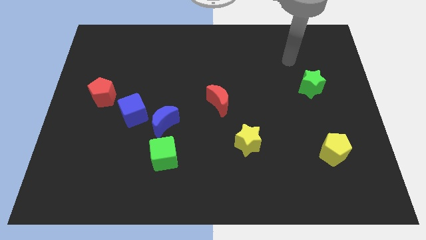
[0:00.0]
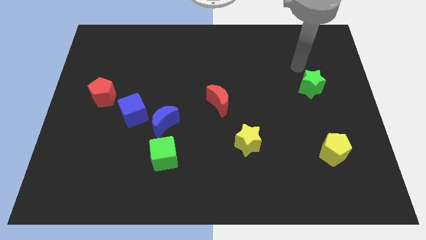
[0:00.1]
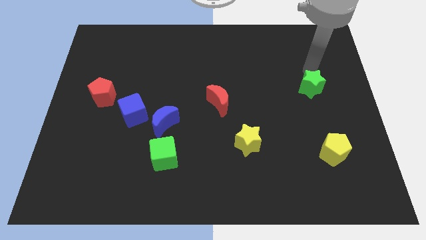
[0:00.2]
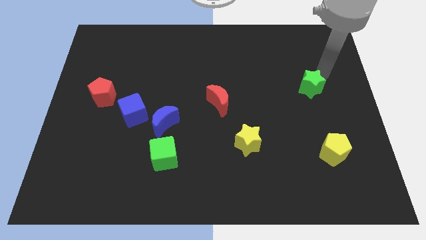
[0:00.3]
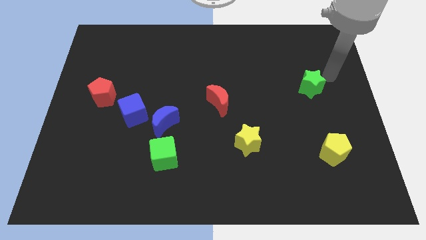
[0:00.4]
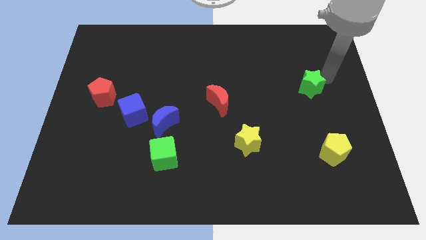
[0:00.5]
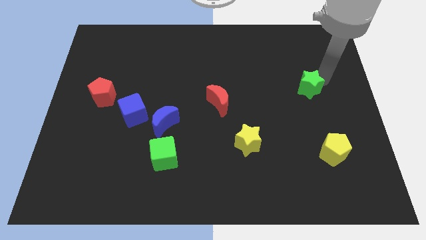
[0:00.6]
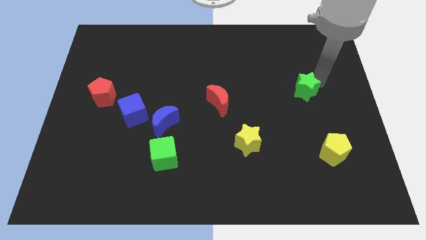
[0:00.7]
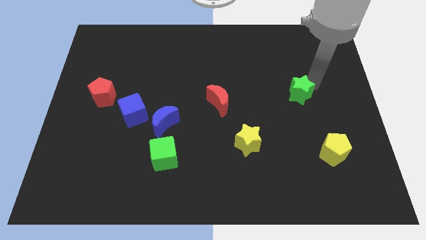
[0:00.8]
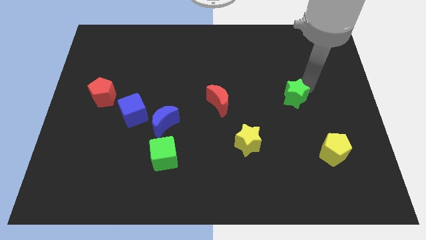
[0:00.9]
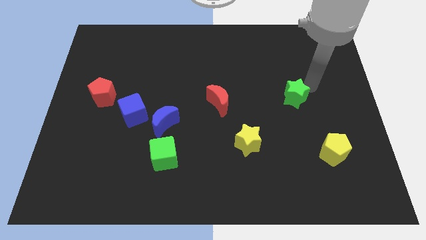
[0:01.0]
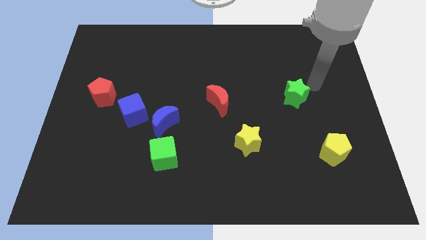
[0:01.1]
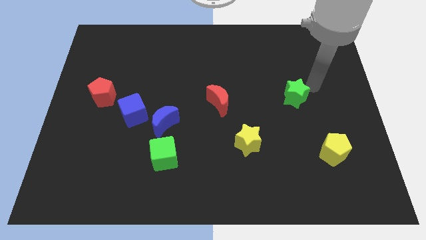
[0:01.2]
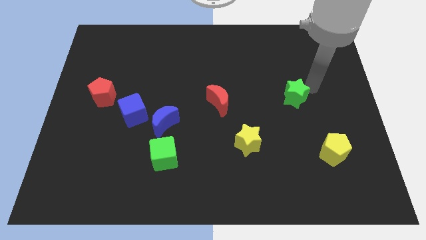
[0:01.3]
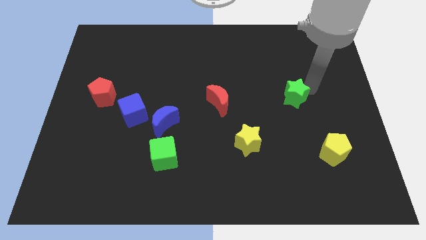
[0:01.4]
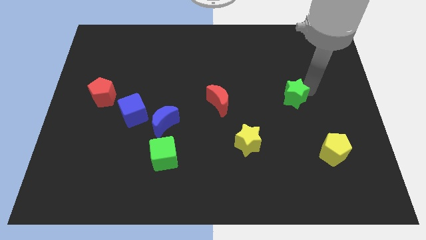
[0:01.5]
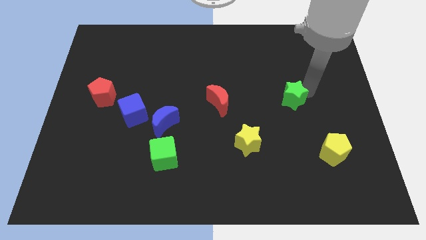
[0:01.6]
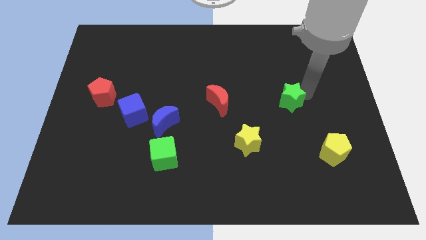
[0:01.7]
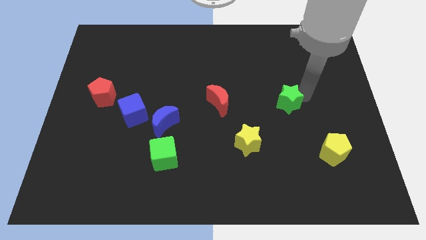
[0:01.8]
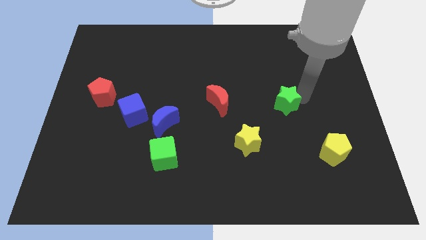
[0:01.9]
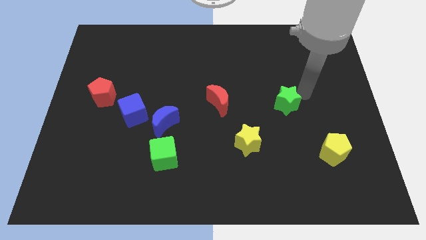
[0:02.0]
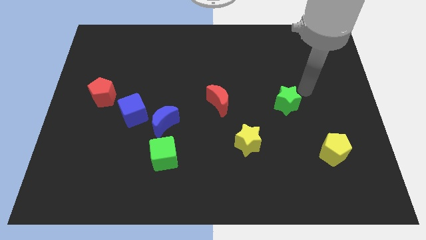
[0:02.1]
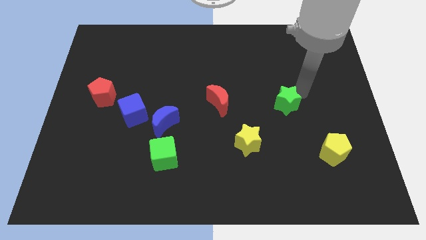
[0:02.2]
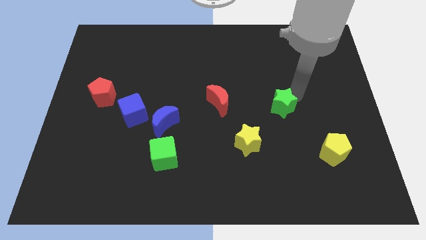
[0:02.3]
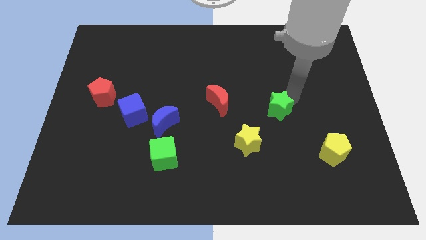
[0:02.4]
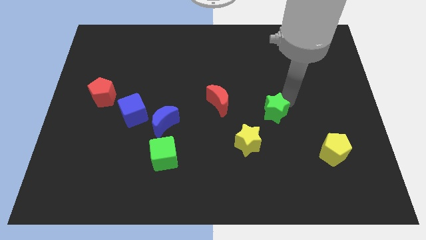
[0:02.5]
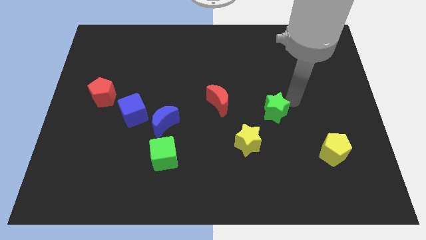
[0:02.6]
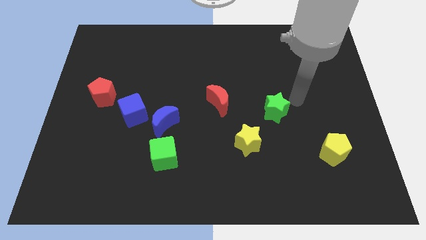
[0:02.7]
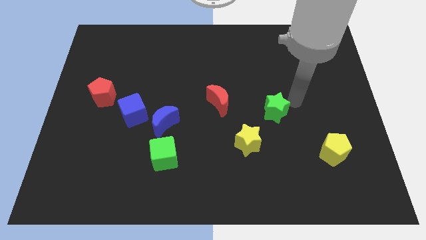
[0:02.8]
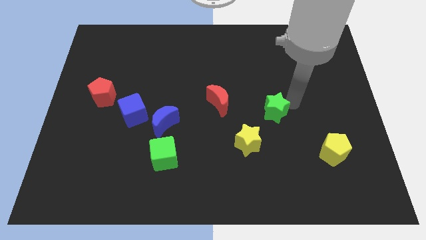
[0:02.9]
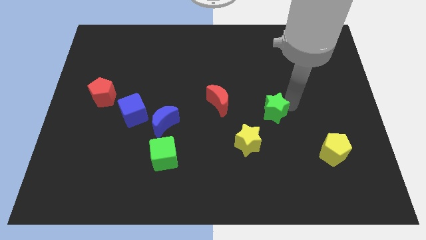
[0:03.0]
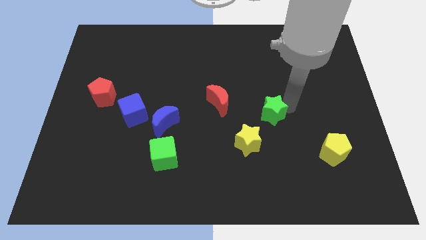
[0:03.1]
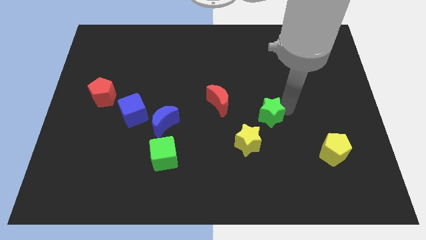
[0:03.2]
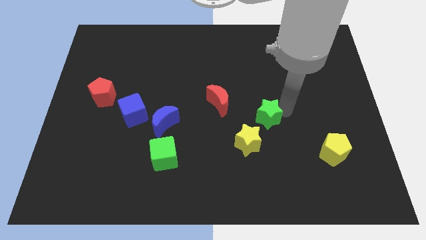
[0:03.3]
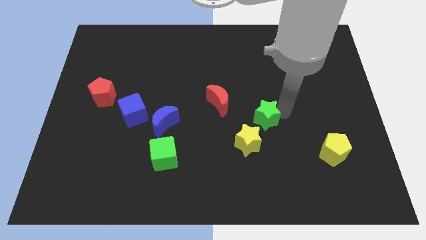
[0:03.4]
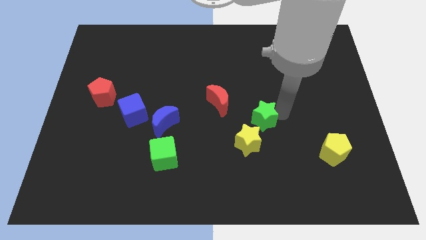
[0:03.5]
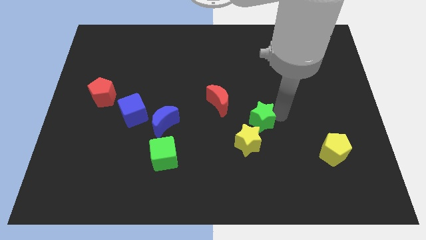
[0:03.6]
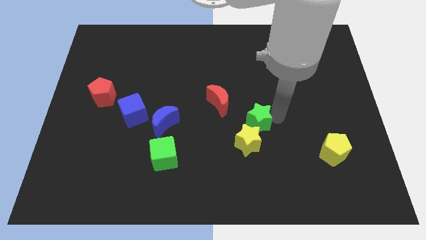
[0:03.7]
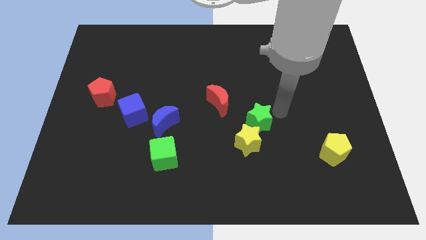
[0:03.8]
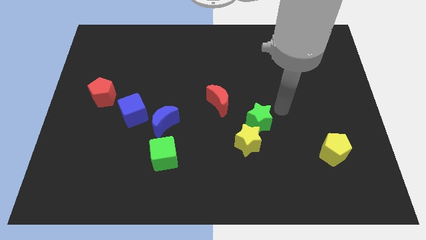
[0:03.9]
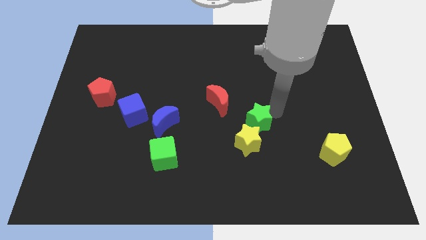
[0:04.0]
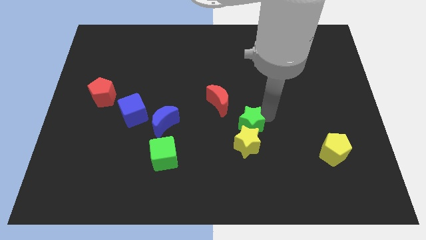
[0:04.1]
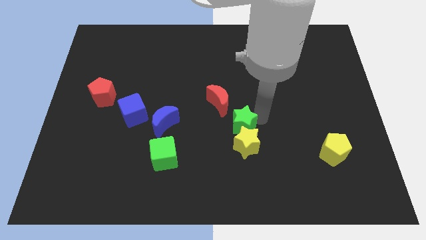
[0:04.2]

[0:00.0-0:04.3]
push the green star diagonally downwards and to the left

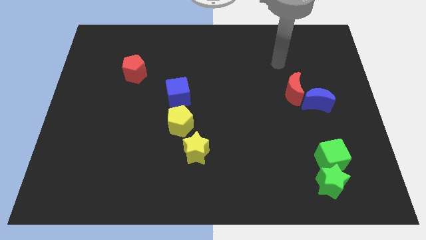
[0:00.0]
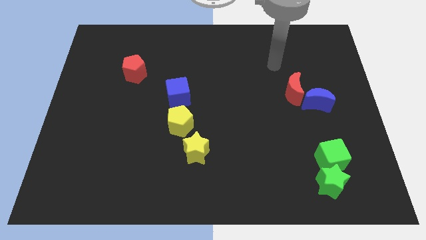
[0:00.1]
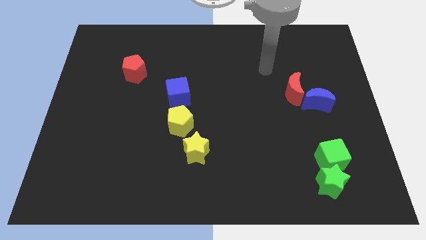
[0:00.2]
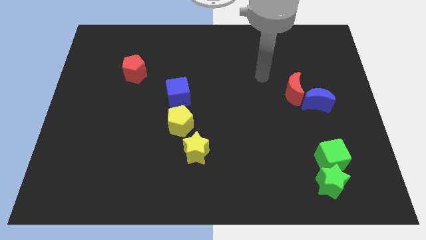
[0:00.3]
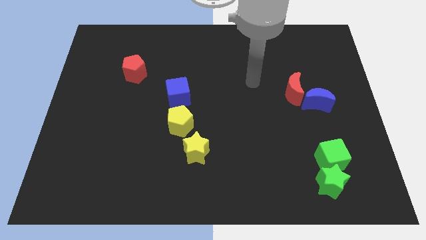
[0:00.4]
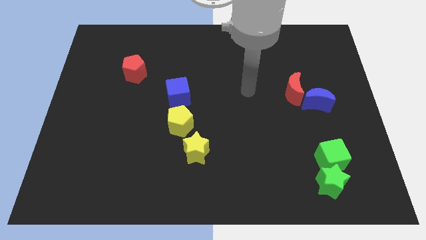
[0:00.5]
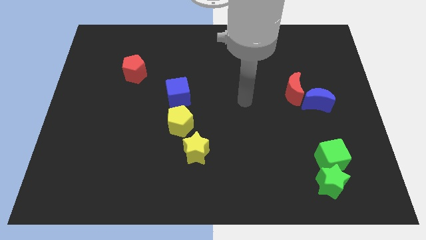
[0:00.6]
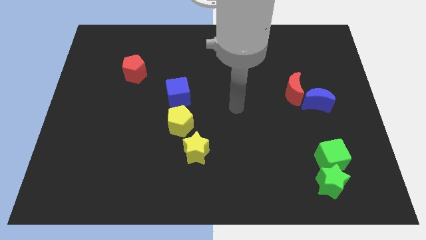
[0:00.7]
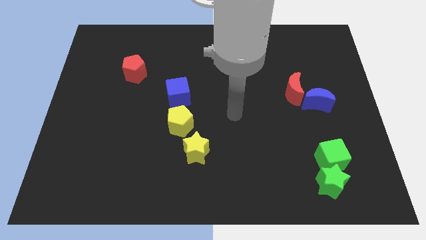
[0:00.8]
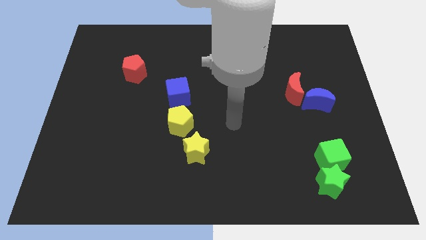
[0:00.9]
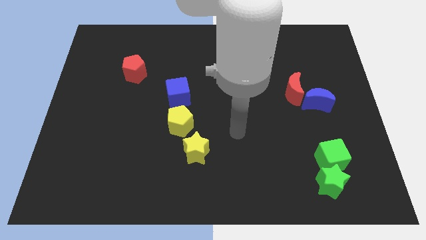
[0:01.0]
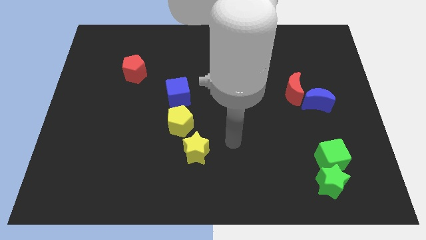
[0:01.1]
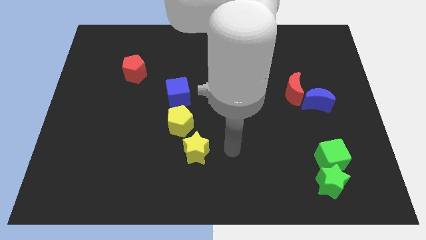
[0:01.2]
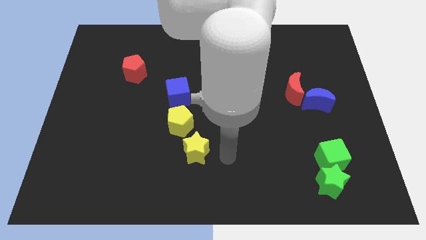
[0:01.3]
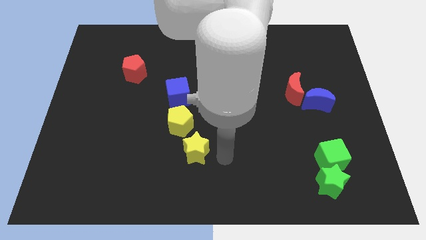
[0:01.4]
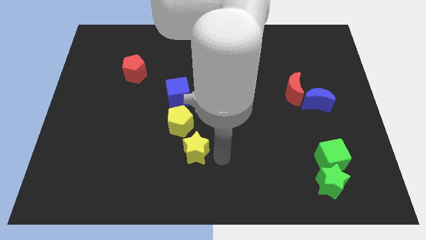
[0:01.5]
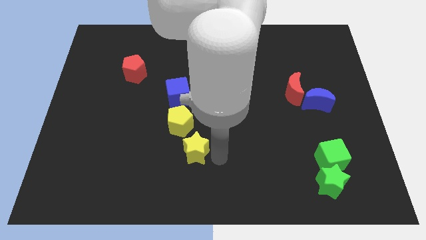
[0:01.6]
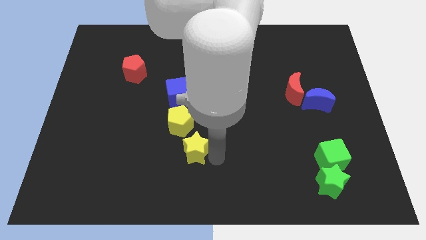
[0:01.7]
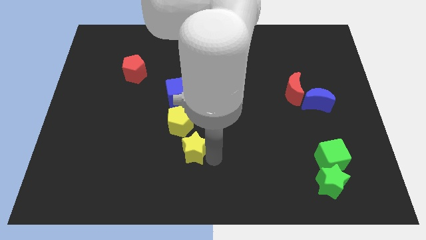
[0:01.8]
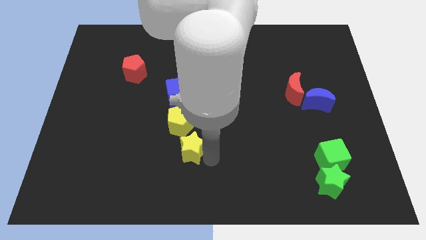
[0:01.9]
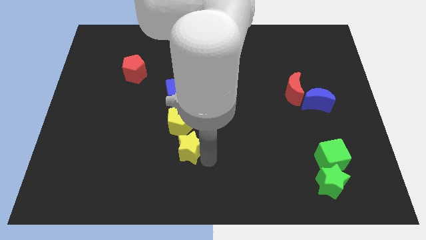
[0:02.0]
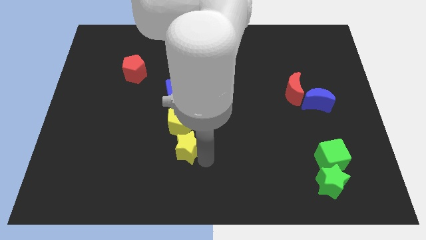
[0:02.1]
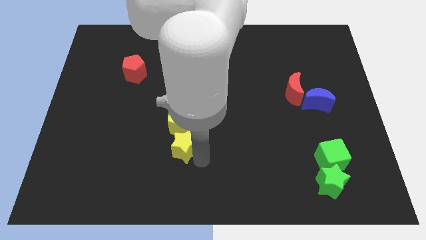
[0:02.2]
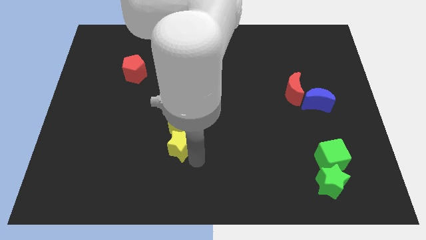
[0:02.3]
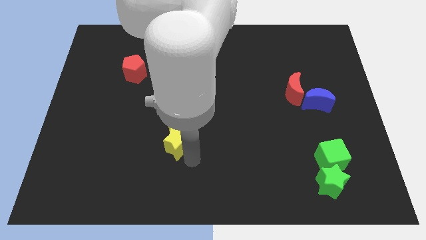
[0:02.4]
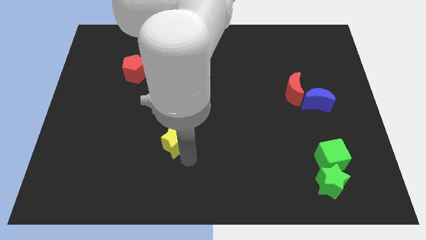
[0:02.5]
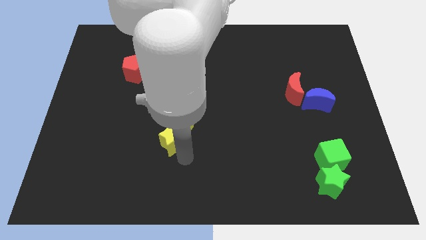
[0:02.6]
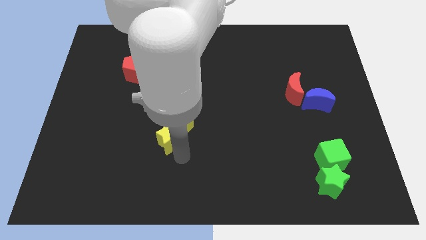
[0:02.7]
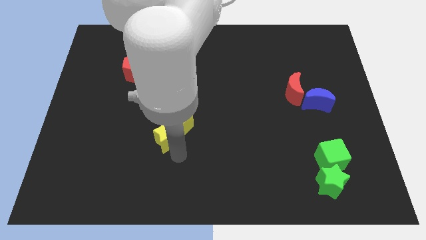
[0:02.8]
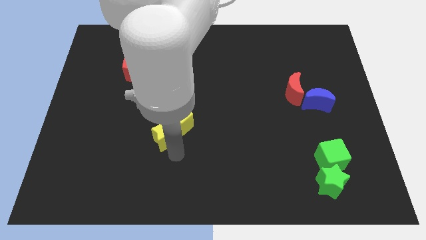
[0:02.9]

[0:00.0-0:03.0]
slightly move the yellow star up and left diagonally

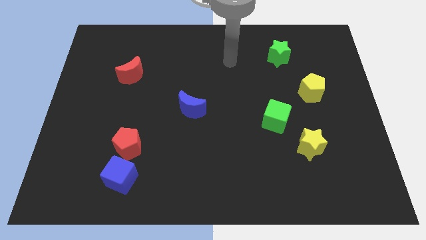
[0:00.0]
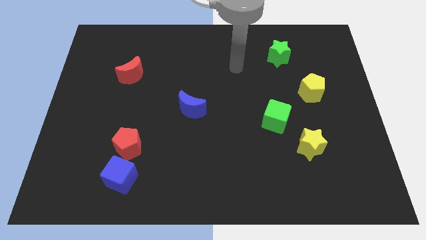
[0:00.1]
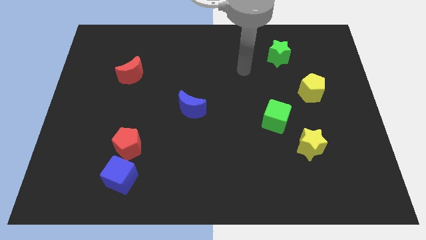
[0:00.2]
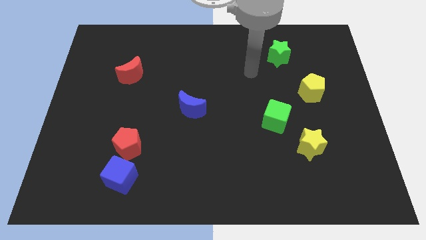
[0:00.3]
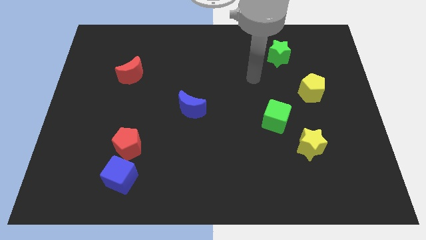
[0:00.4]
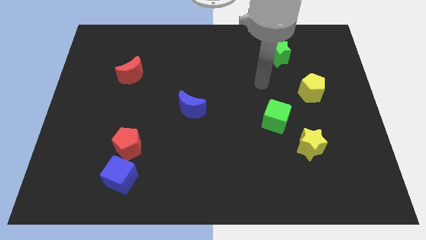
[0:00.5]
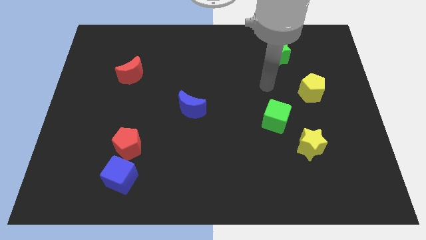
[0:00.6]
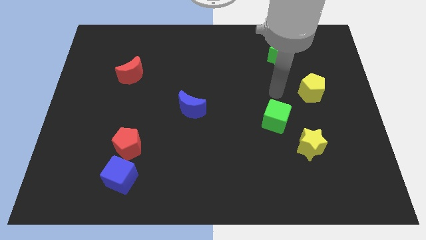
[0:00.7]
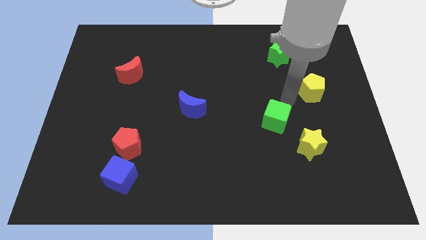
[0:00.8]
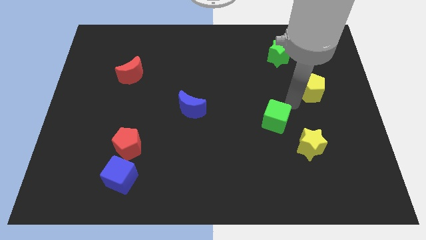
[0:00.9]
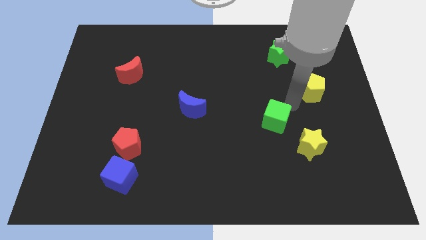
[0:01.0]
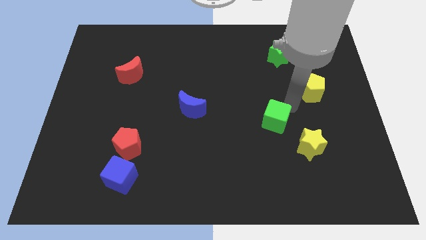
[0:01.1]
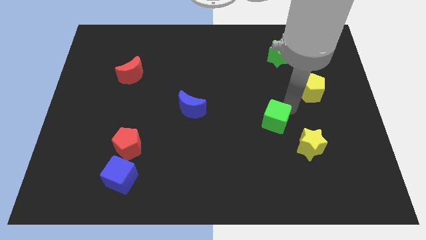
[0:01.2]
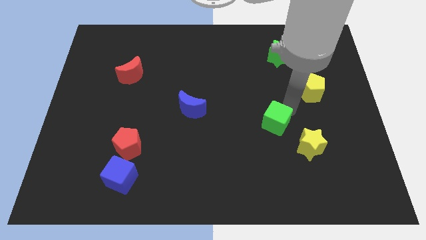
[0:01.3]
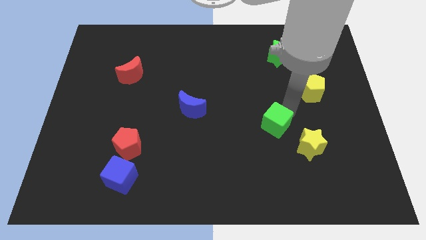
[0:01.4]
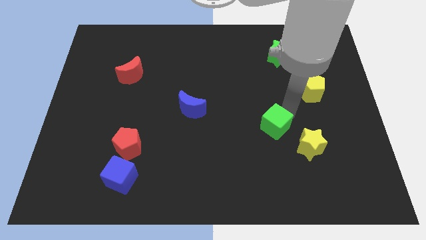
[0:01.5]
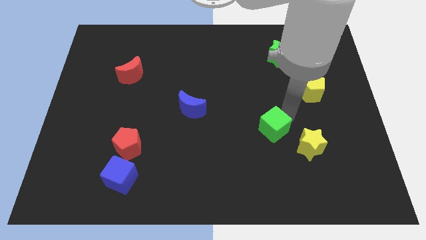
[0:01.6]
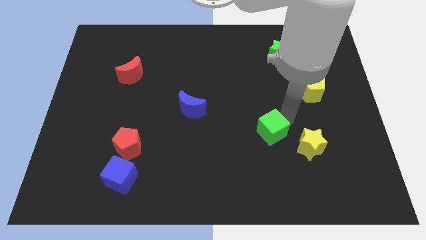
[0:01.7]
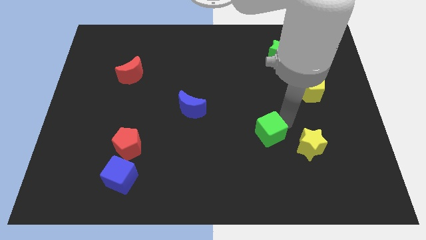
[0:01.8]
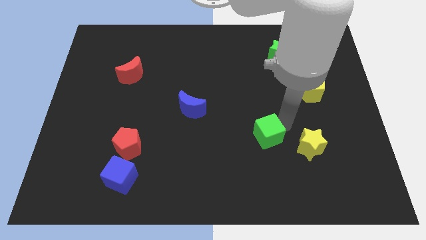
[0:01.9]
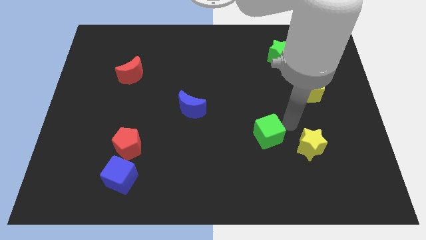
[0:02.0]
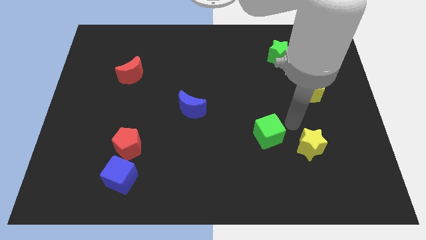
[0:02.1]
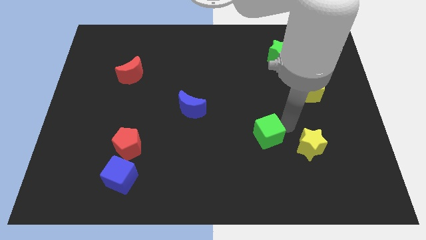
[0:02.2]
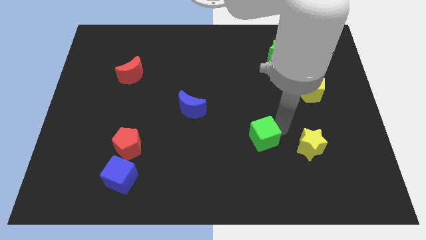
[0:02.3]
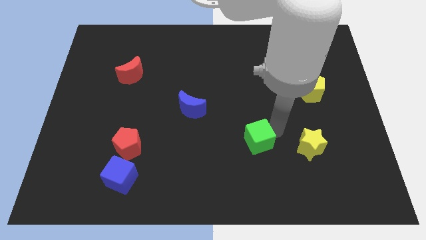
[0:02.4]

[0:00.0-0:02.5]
slightly push the green cube downwards and left
